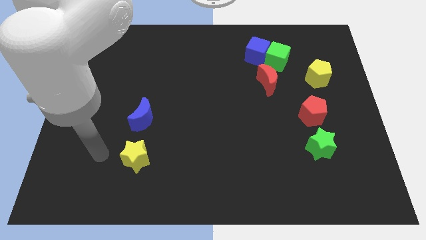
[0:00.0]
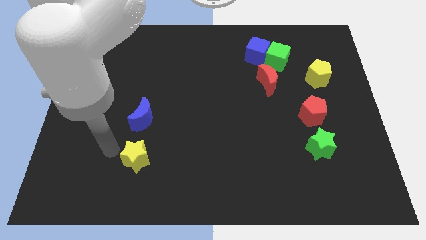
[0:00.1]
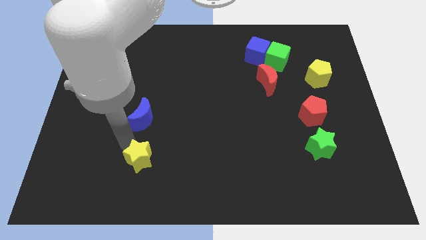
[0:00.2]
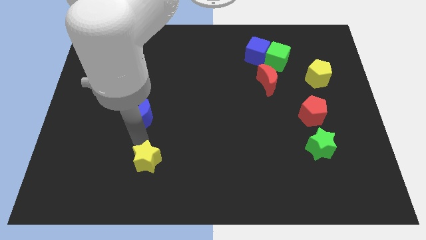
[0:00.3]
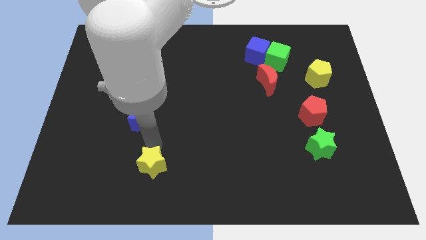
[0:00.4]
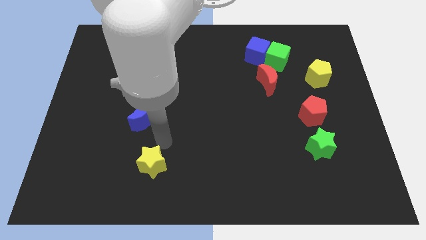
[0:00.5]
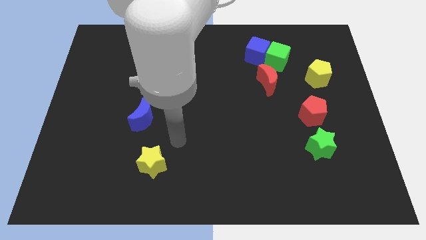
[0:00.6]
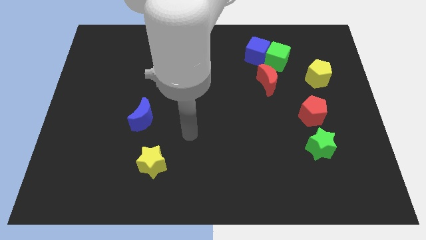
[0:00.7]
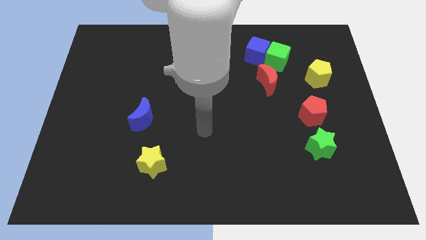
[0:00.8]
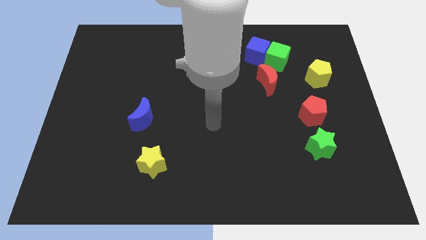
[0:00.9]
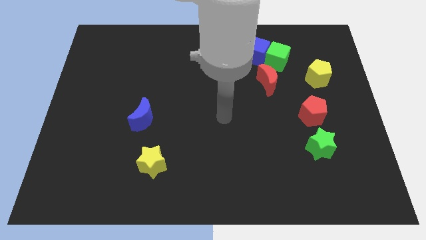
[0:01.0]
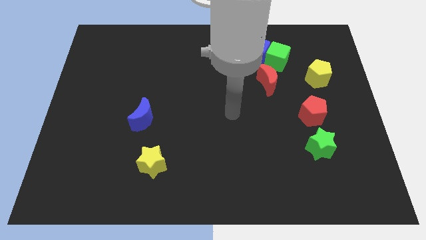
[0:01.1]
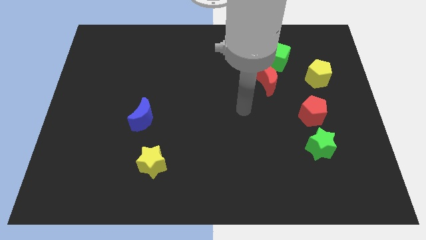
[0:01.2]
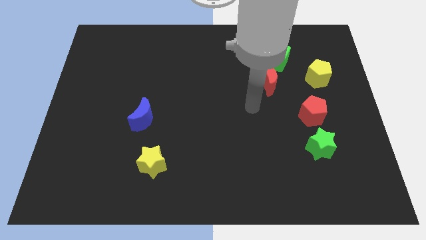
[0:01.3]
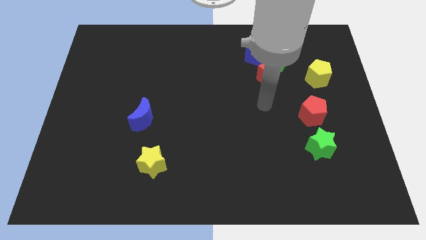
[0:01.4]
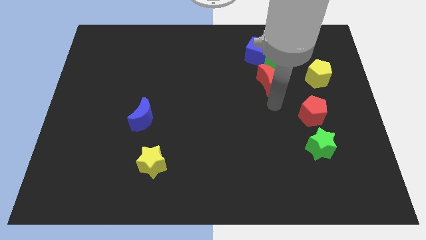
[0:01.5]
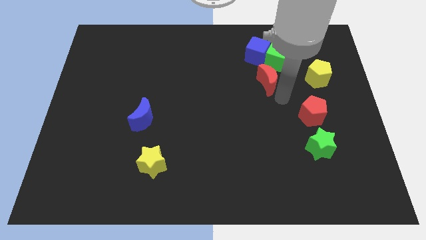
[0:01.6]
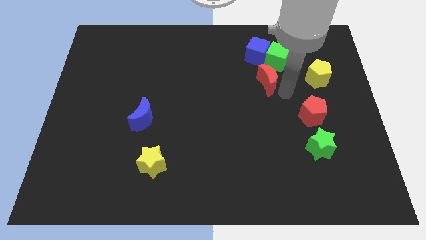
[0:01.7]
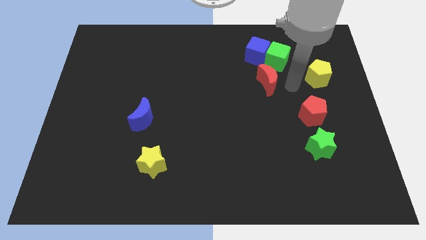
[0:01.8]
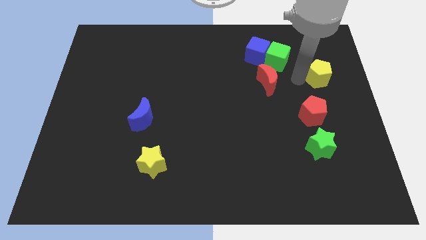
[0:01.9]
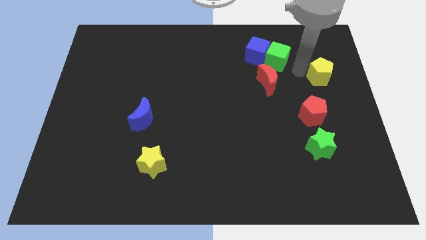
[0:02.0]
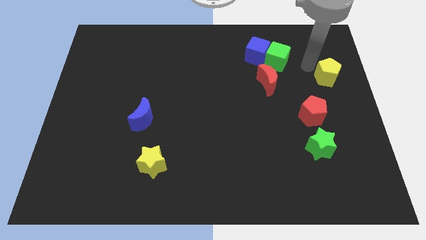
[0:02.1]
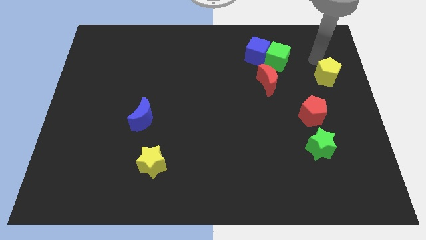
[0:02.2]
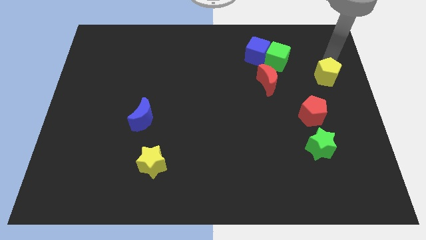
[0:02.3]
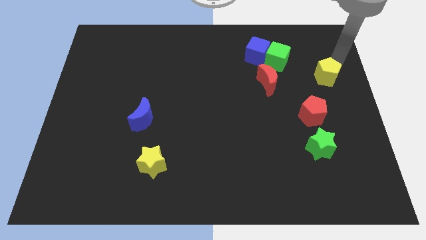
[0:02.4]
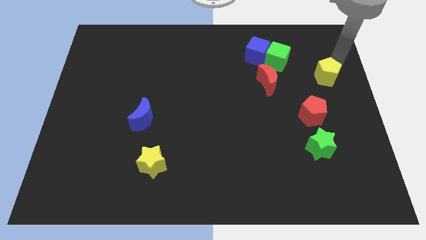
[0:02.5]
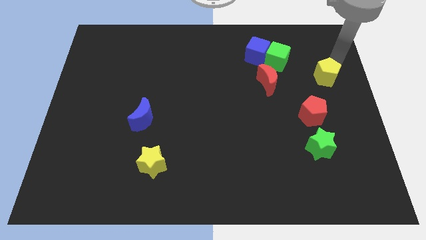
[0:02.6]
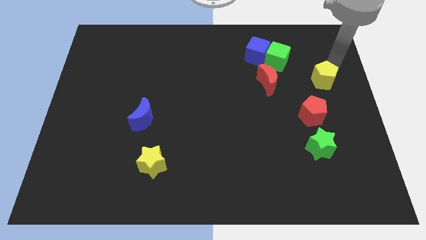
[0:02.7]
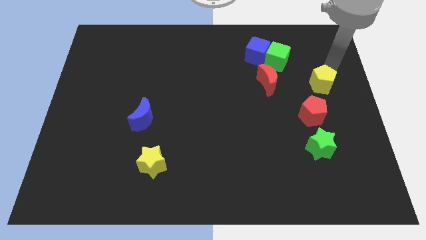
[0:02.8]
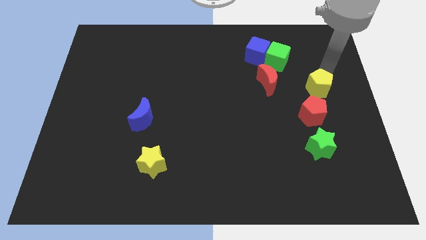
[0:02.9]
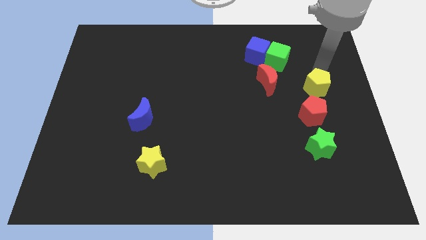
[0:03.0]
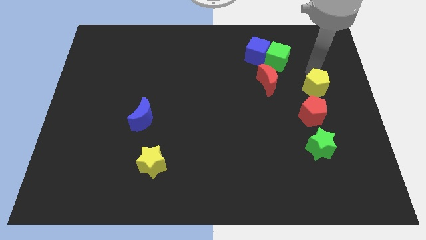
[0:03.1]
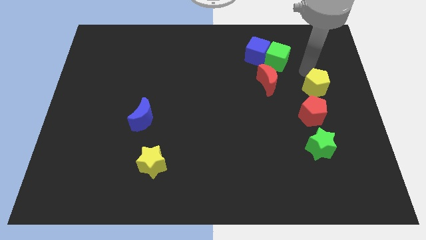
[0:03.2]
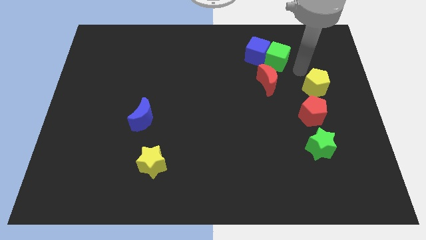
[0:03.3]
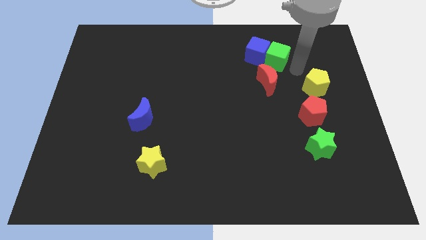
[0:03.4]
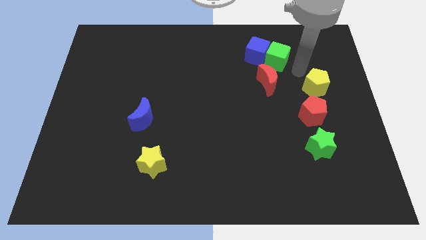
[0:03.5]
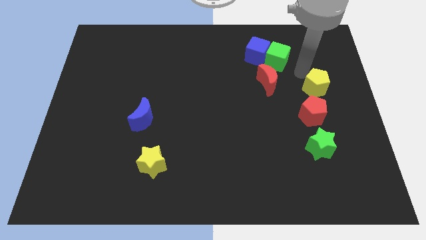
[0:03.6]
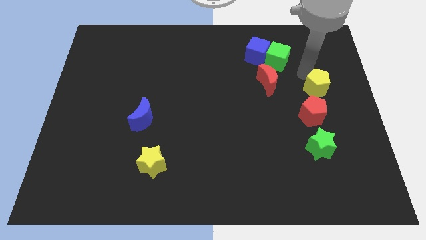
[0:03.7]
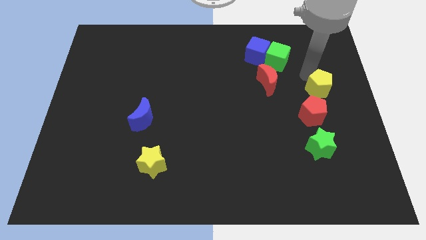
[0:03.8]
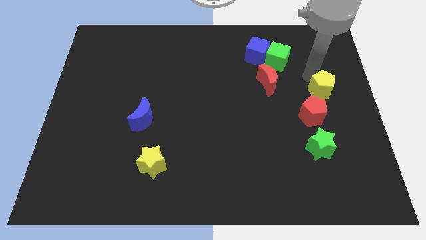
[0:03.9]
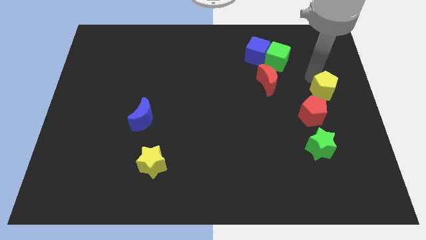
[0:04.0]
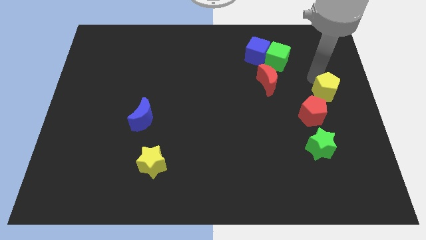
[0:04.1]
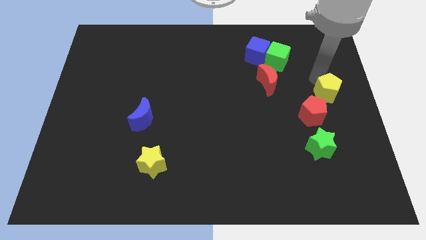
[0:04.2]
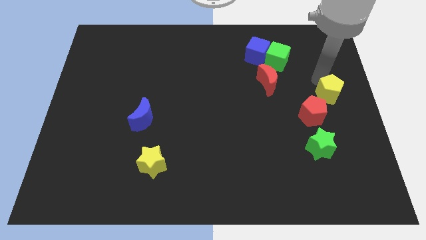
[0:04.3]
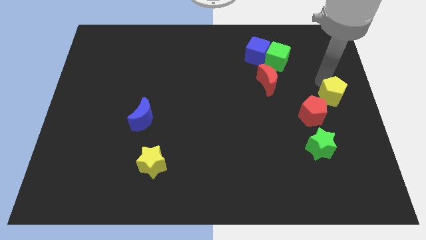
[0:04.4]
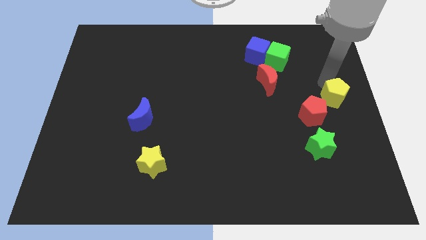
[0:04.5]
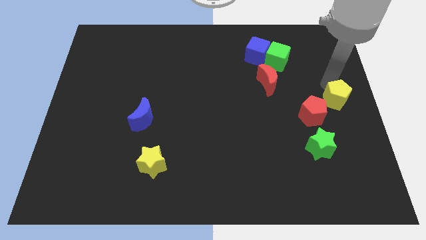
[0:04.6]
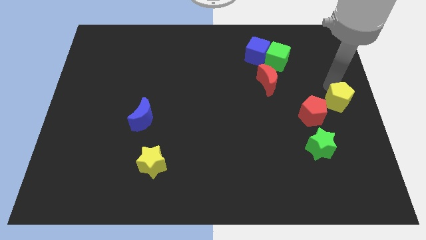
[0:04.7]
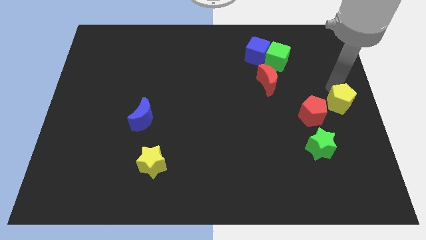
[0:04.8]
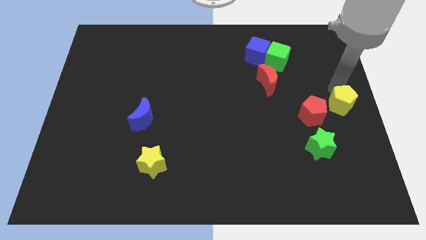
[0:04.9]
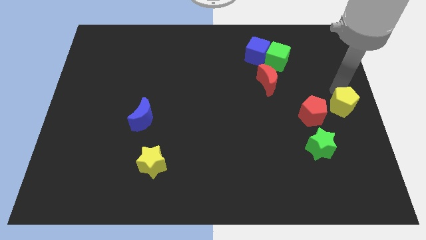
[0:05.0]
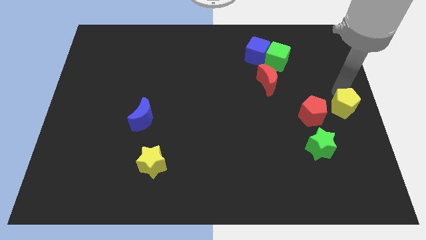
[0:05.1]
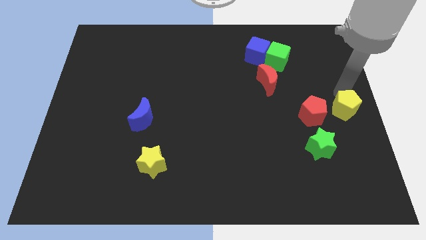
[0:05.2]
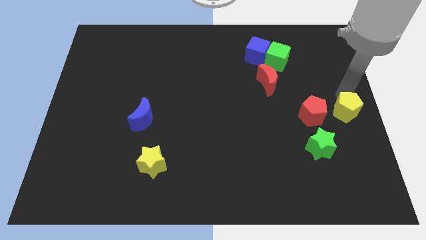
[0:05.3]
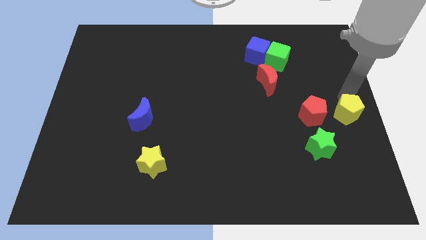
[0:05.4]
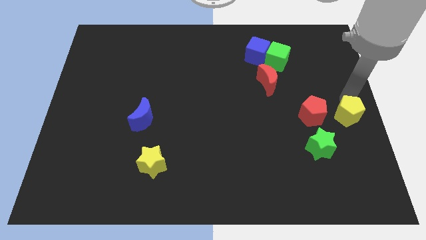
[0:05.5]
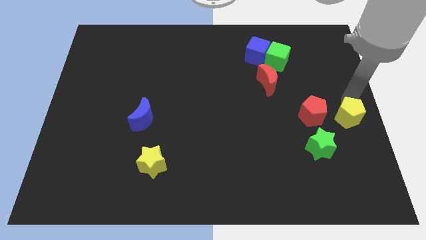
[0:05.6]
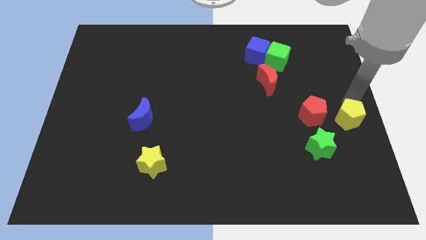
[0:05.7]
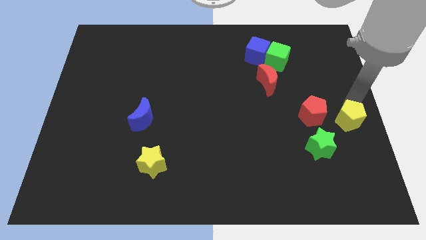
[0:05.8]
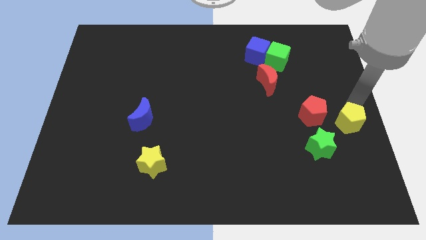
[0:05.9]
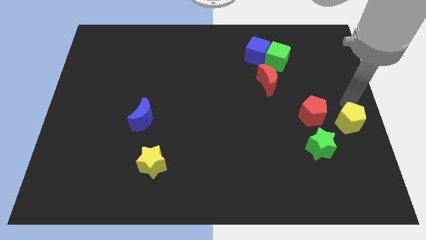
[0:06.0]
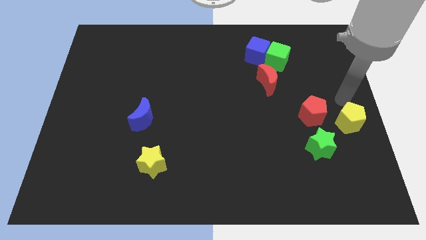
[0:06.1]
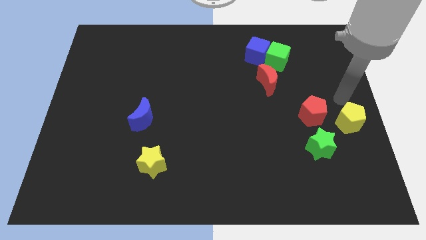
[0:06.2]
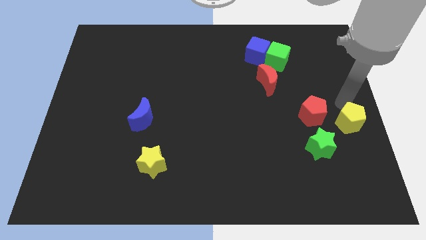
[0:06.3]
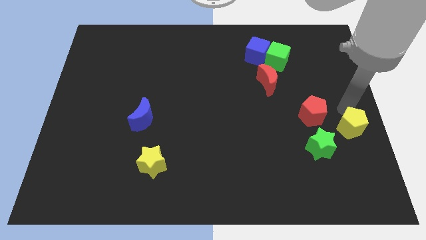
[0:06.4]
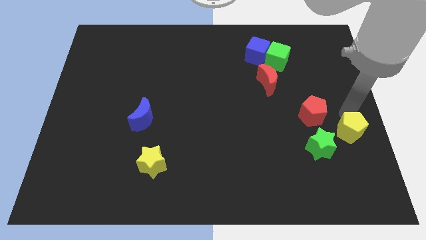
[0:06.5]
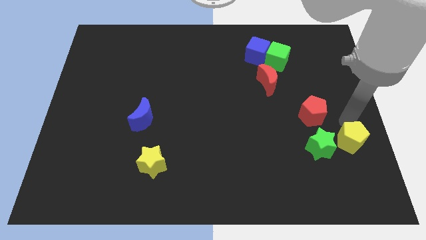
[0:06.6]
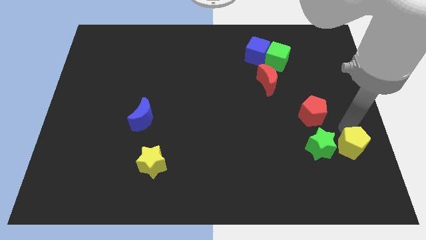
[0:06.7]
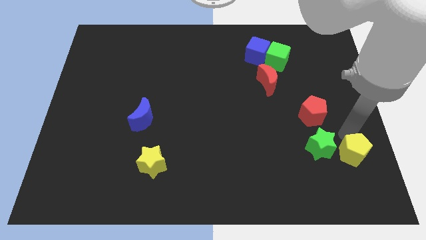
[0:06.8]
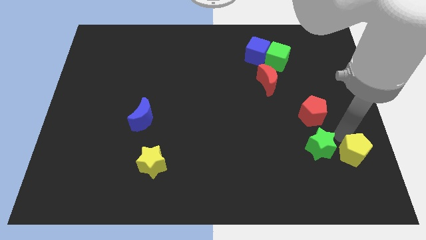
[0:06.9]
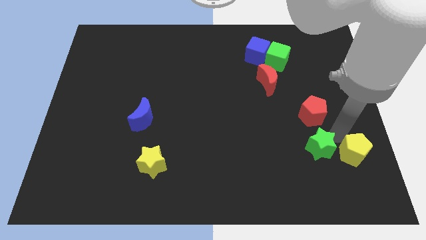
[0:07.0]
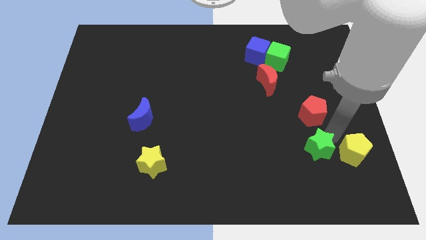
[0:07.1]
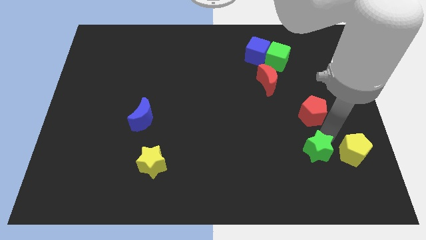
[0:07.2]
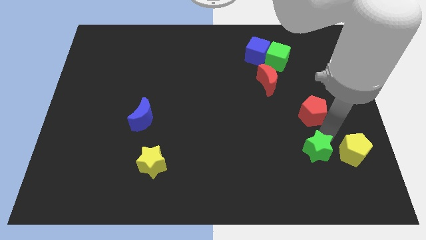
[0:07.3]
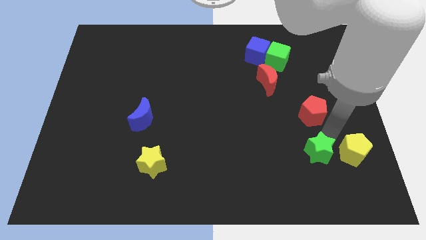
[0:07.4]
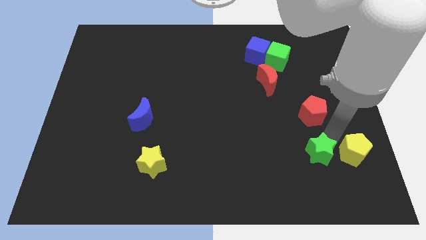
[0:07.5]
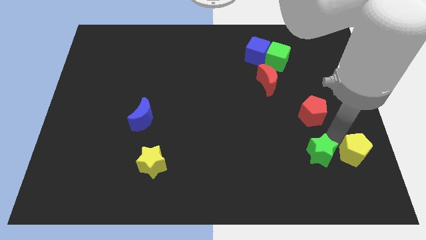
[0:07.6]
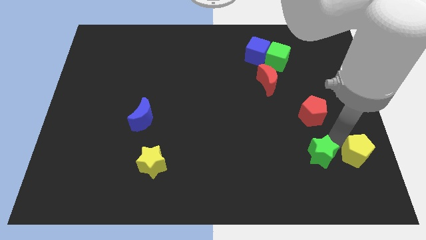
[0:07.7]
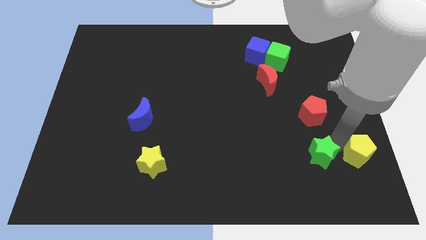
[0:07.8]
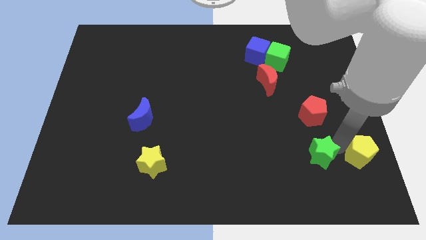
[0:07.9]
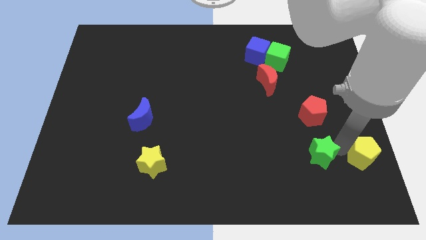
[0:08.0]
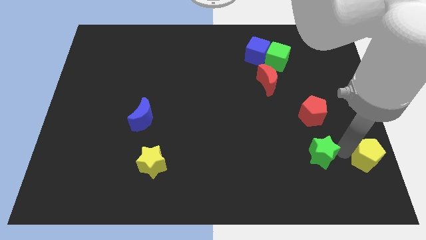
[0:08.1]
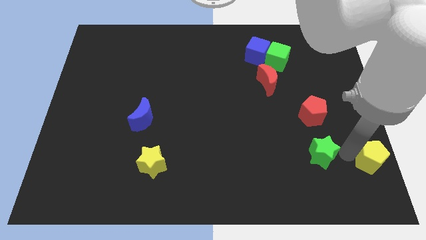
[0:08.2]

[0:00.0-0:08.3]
push the yellow pentagon to the bottom right of the board
